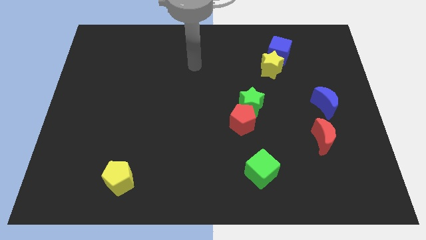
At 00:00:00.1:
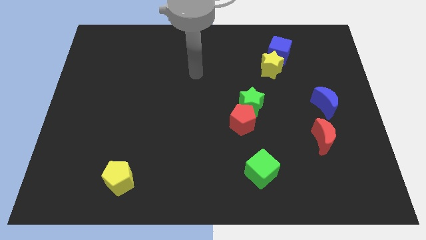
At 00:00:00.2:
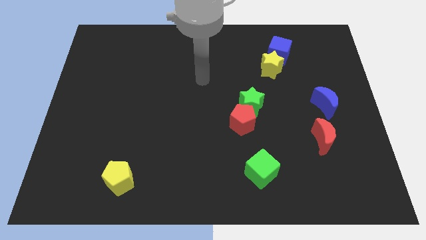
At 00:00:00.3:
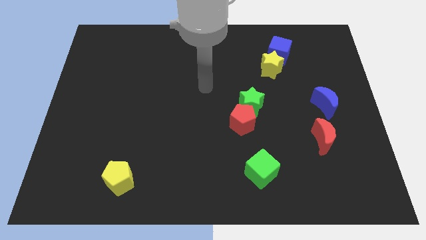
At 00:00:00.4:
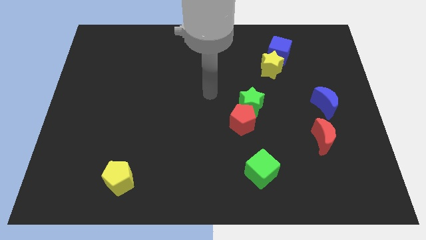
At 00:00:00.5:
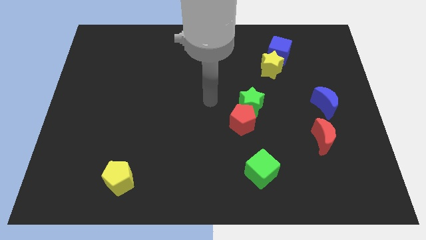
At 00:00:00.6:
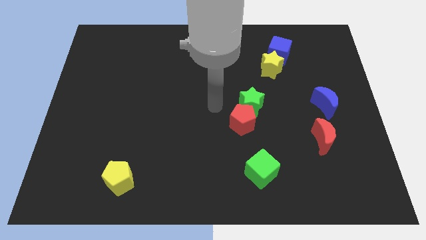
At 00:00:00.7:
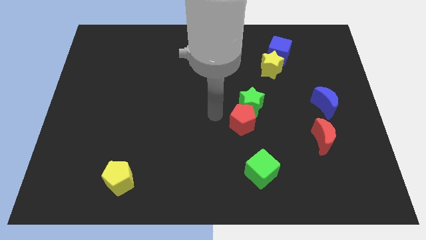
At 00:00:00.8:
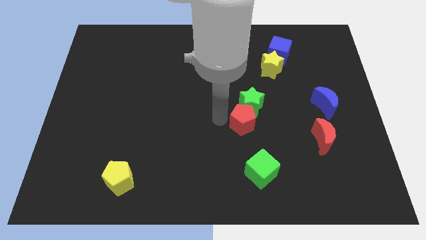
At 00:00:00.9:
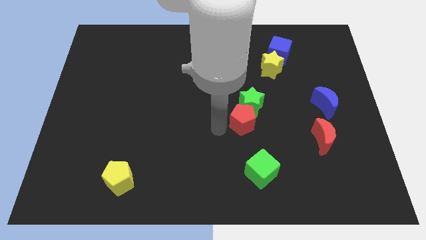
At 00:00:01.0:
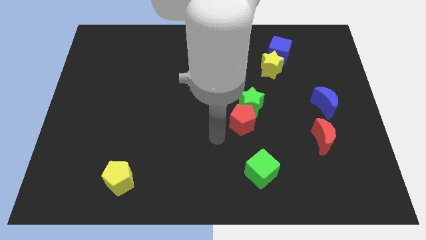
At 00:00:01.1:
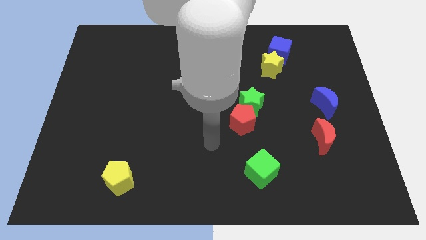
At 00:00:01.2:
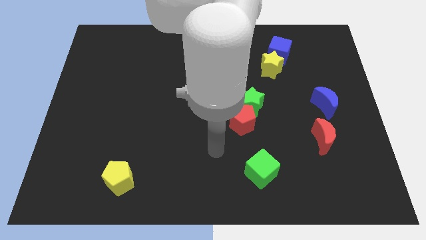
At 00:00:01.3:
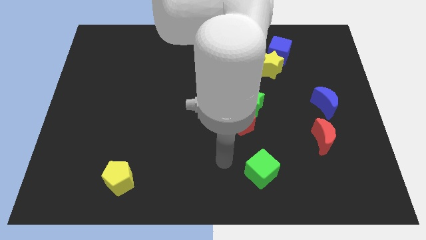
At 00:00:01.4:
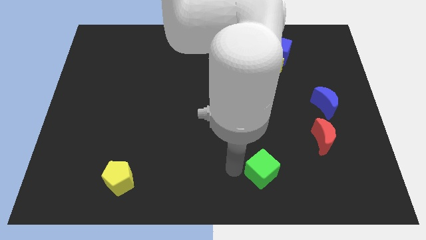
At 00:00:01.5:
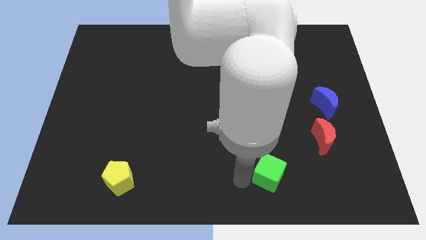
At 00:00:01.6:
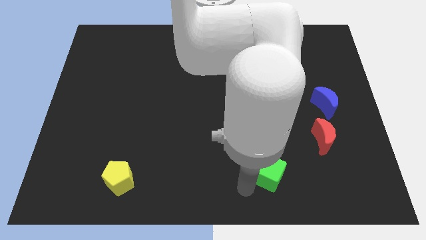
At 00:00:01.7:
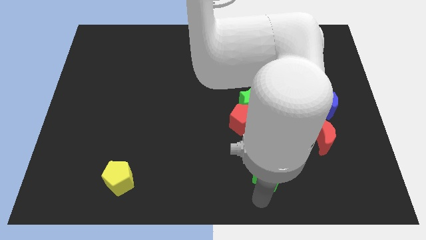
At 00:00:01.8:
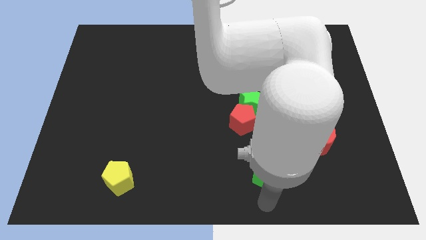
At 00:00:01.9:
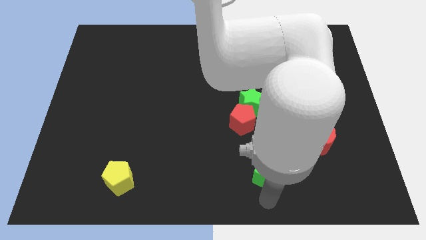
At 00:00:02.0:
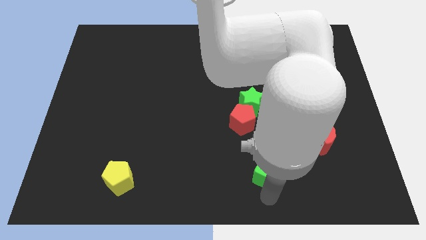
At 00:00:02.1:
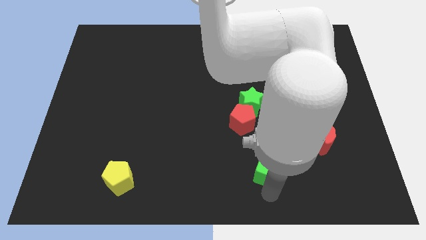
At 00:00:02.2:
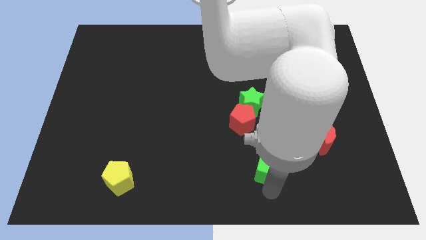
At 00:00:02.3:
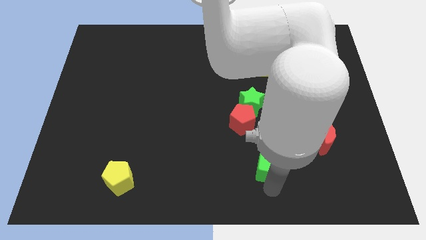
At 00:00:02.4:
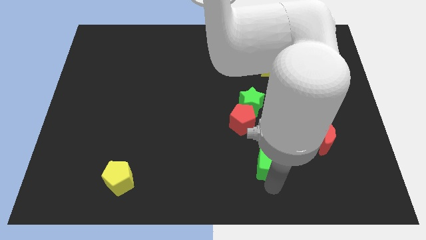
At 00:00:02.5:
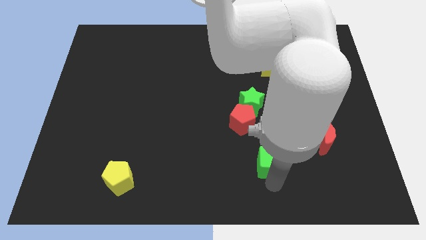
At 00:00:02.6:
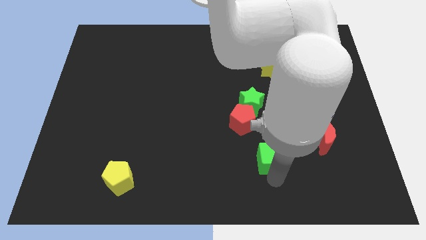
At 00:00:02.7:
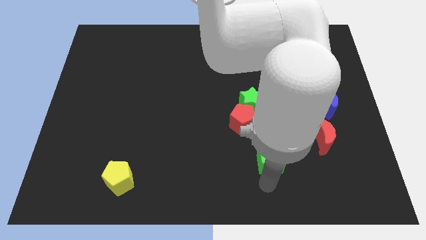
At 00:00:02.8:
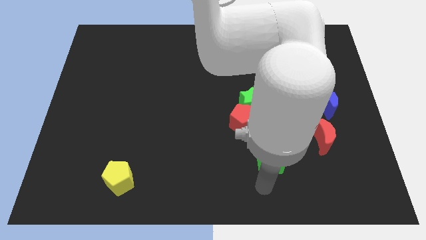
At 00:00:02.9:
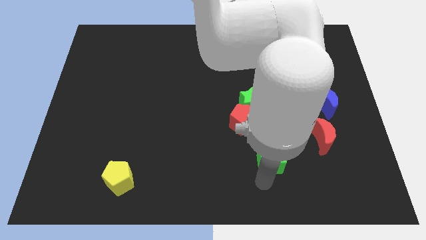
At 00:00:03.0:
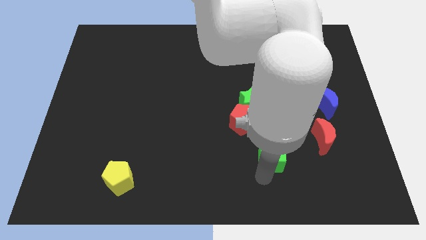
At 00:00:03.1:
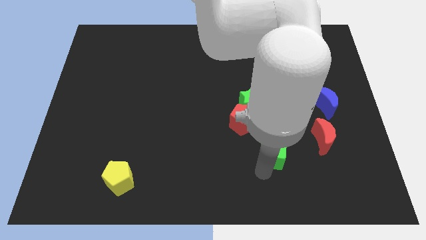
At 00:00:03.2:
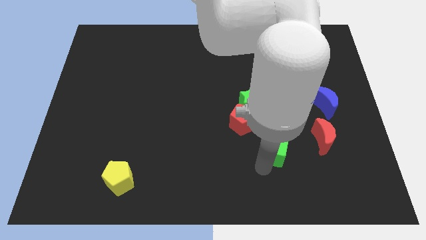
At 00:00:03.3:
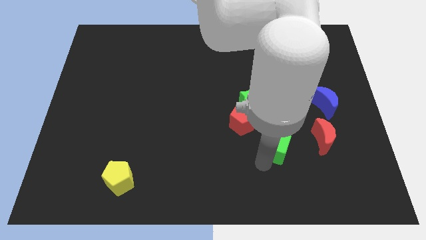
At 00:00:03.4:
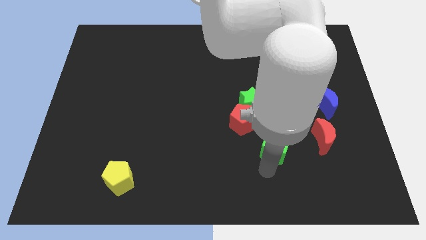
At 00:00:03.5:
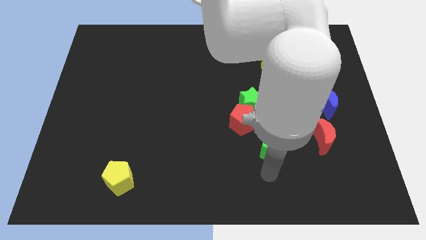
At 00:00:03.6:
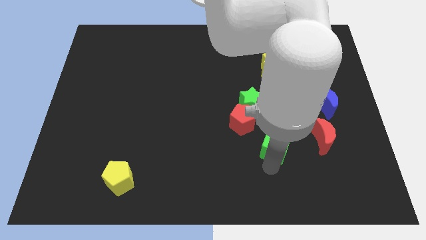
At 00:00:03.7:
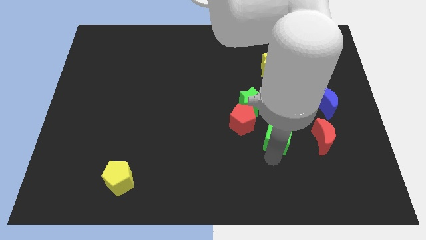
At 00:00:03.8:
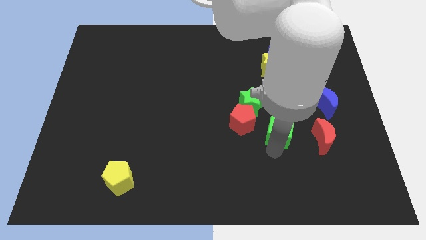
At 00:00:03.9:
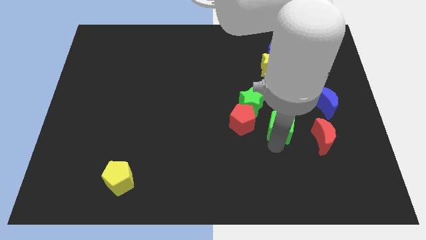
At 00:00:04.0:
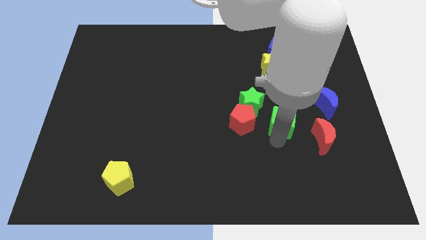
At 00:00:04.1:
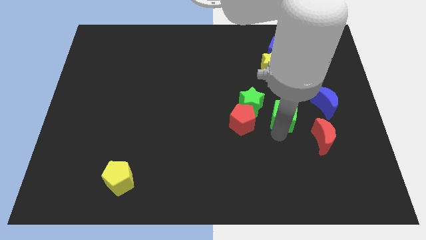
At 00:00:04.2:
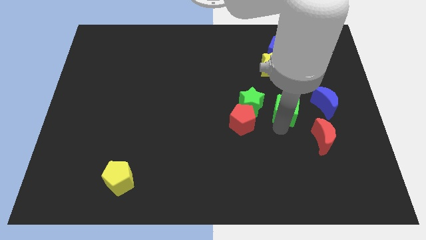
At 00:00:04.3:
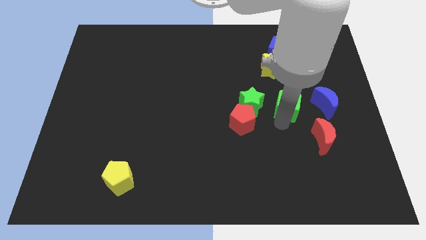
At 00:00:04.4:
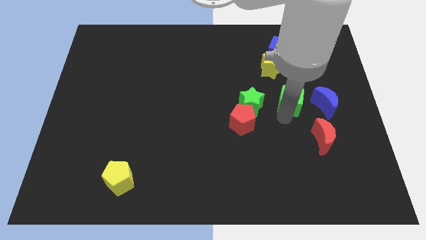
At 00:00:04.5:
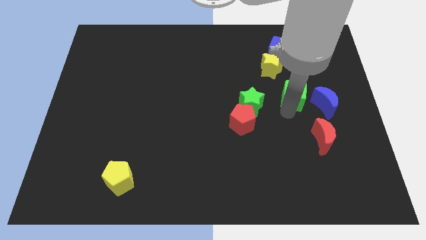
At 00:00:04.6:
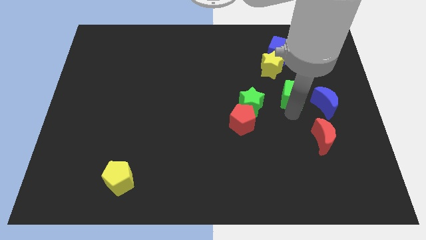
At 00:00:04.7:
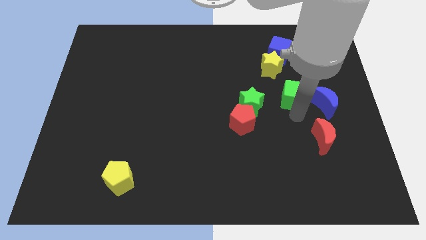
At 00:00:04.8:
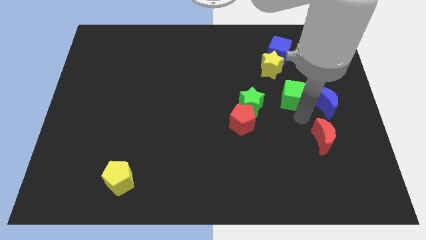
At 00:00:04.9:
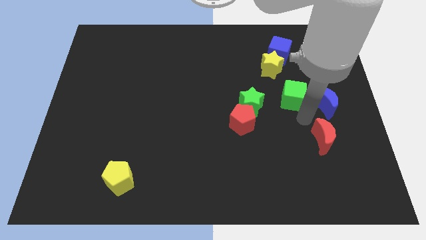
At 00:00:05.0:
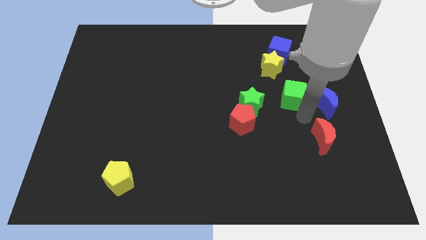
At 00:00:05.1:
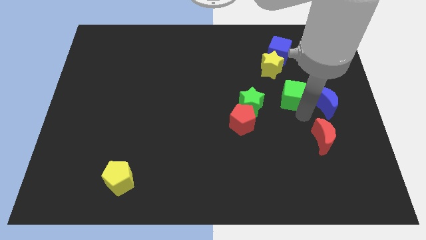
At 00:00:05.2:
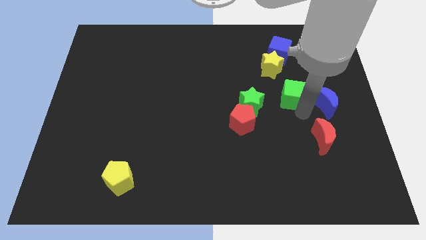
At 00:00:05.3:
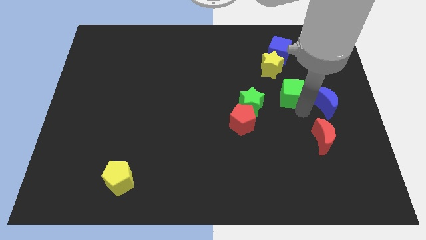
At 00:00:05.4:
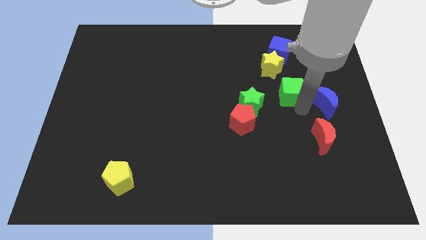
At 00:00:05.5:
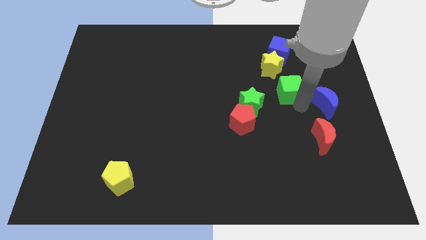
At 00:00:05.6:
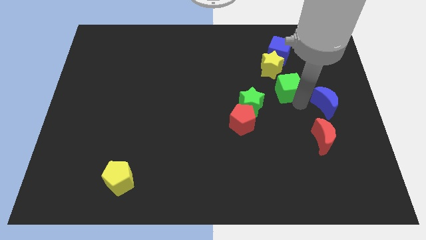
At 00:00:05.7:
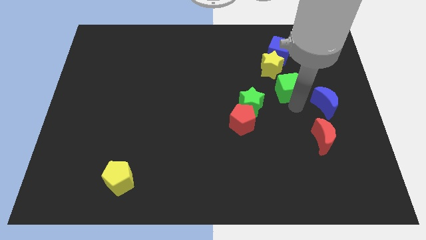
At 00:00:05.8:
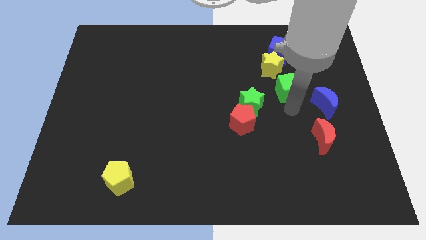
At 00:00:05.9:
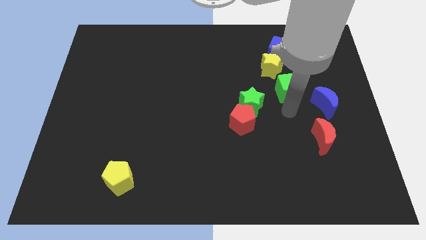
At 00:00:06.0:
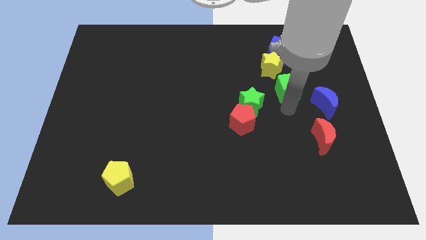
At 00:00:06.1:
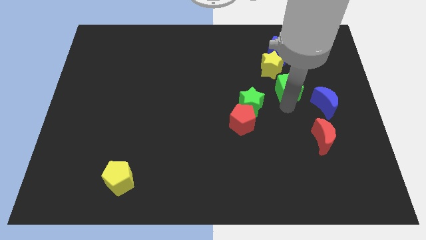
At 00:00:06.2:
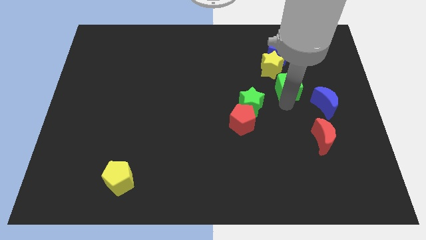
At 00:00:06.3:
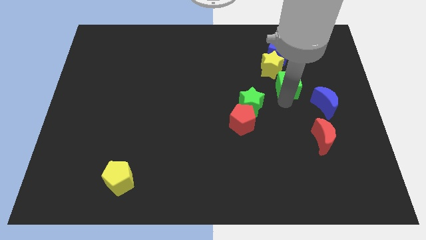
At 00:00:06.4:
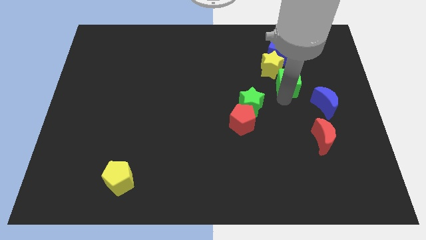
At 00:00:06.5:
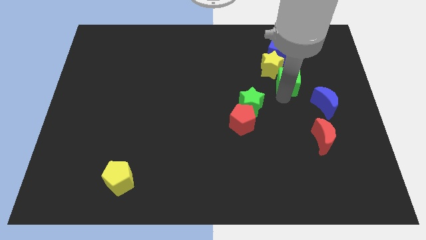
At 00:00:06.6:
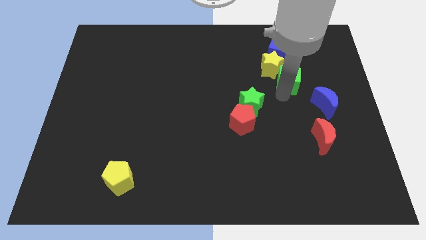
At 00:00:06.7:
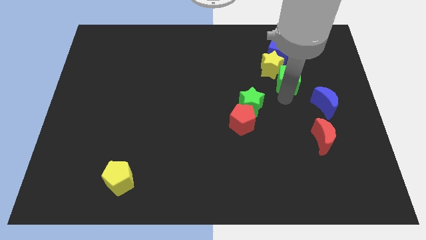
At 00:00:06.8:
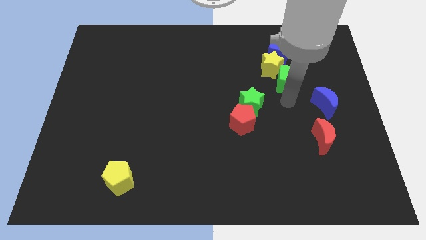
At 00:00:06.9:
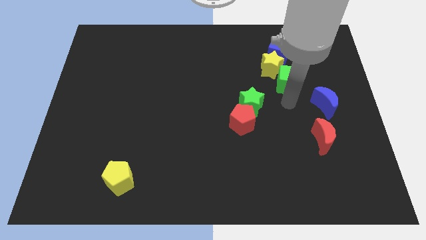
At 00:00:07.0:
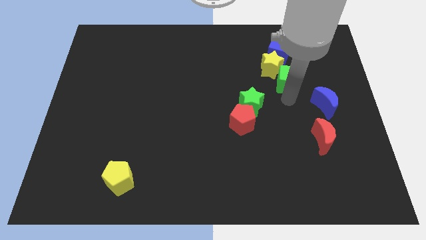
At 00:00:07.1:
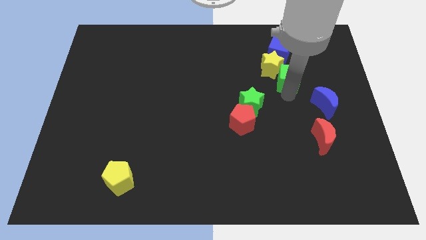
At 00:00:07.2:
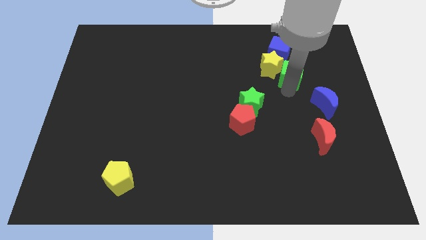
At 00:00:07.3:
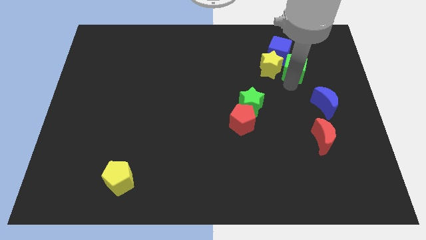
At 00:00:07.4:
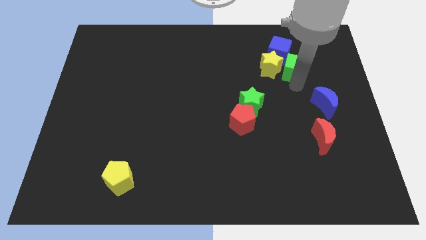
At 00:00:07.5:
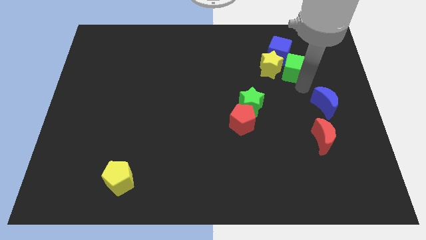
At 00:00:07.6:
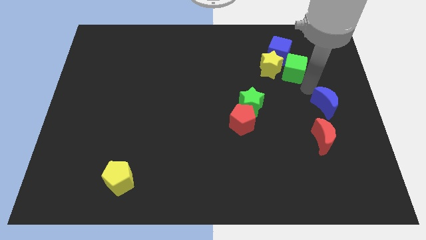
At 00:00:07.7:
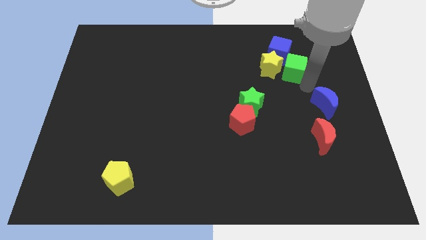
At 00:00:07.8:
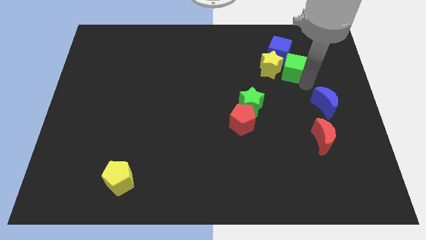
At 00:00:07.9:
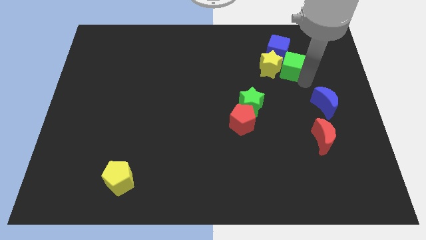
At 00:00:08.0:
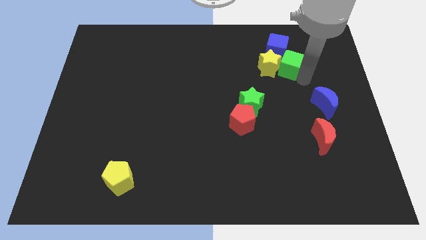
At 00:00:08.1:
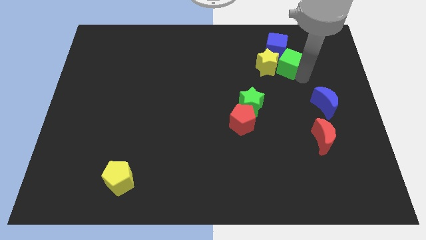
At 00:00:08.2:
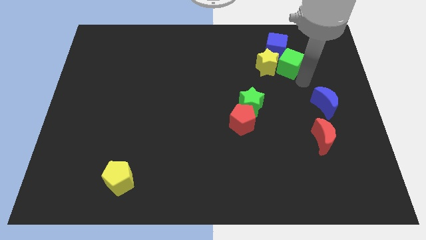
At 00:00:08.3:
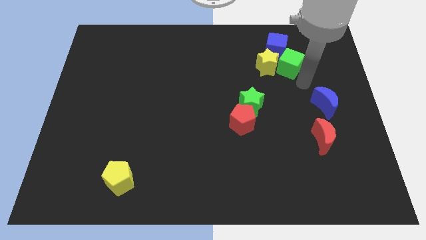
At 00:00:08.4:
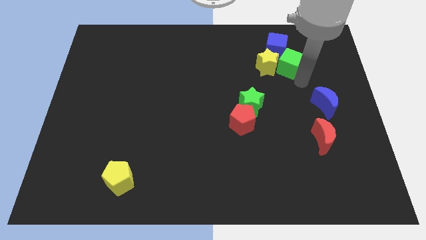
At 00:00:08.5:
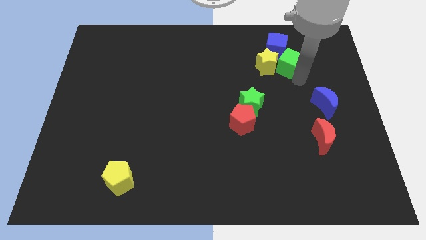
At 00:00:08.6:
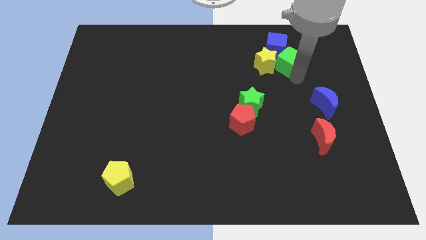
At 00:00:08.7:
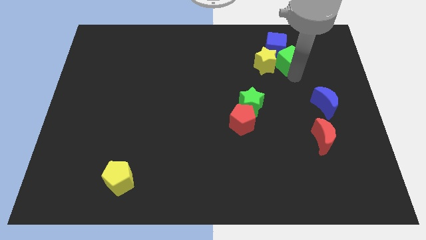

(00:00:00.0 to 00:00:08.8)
push the green cube to the blue cube
